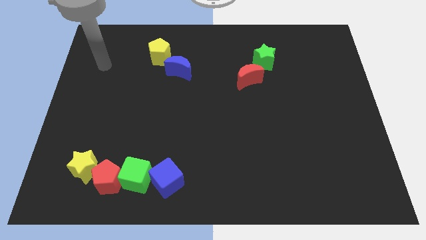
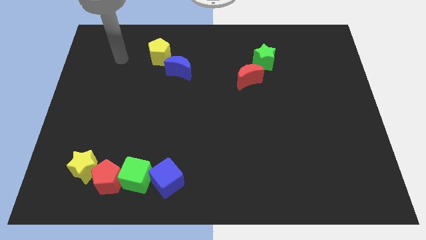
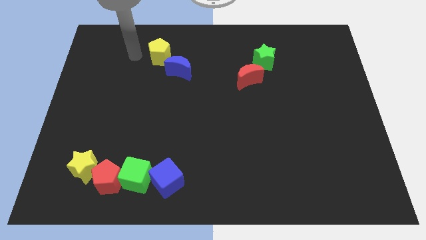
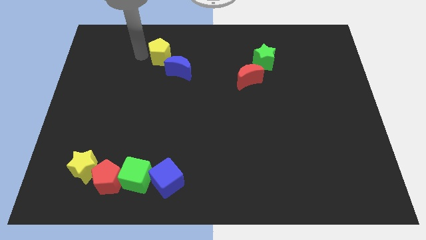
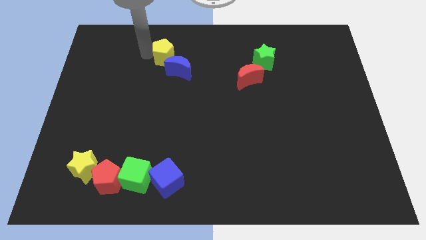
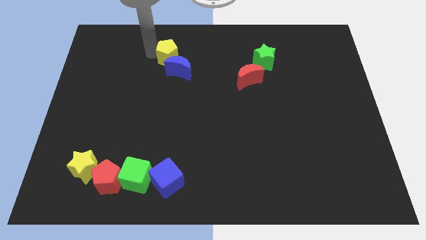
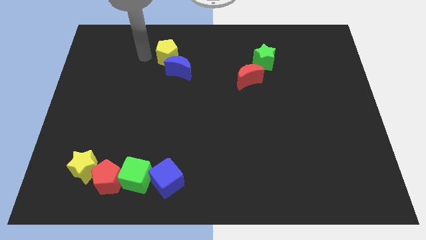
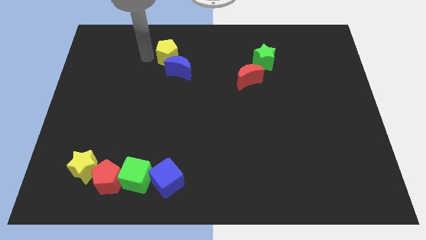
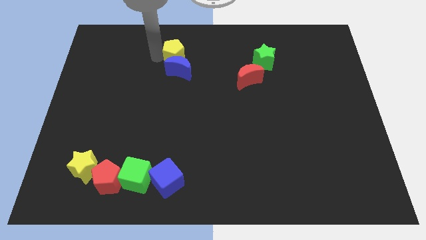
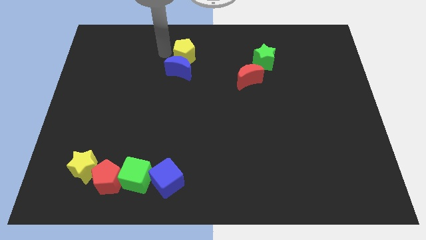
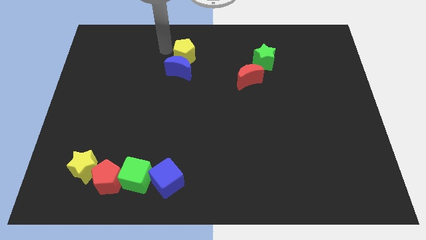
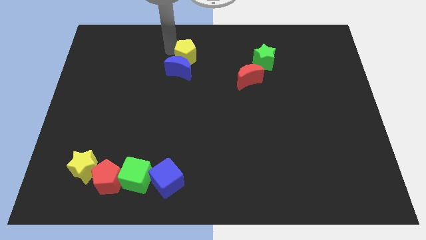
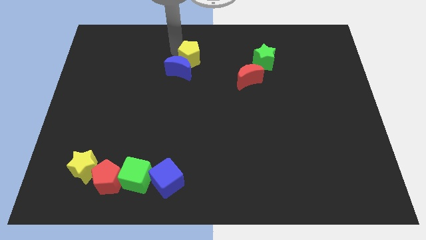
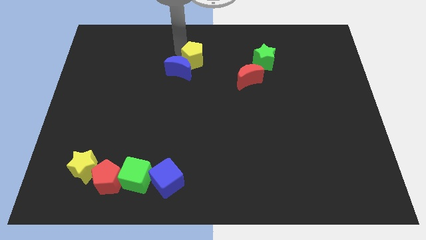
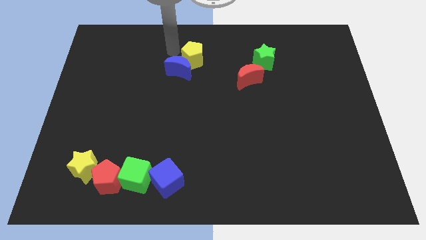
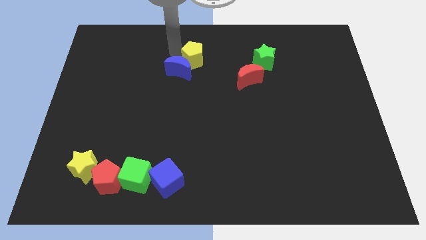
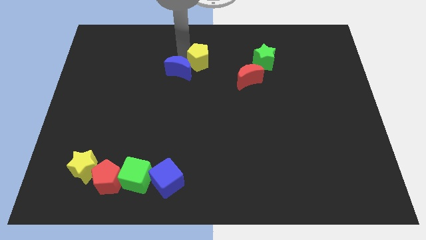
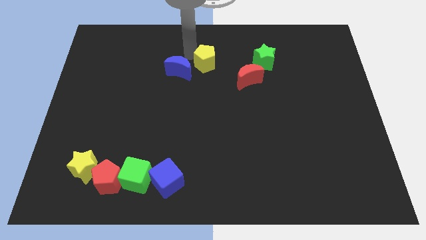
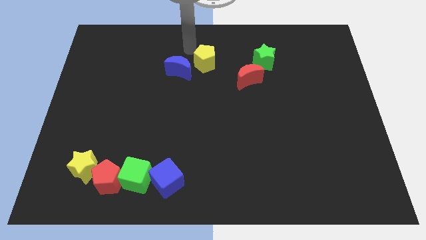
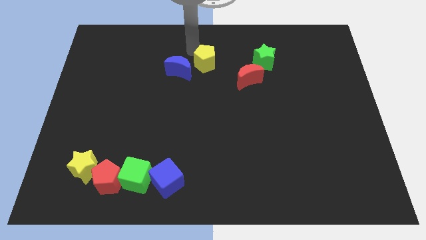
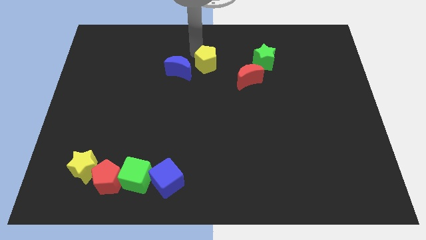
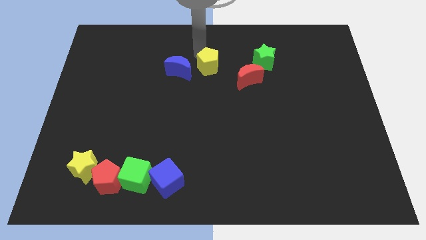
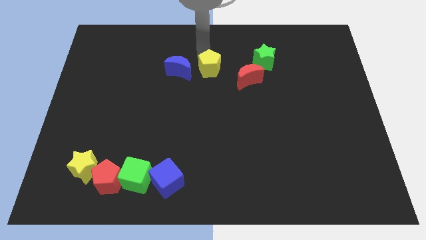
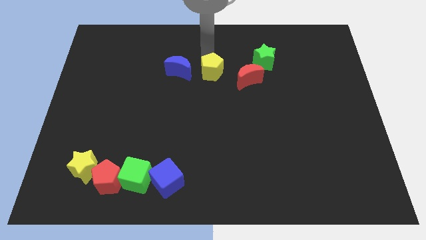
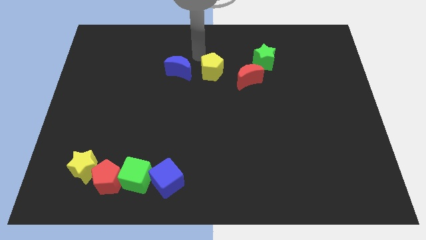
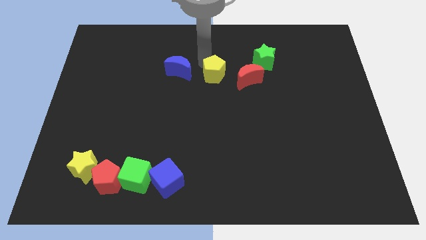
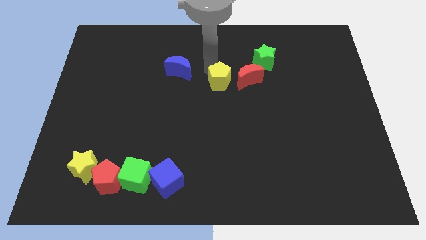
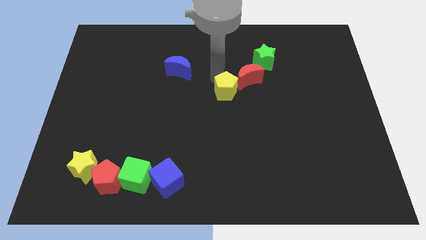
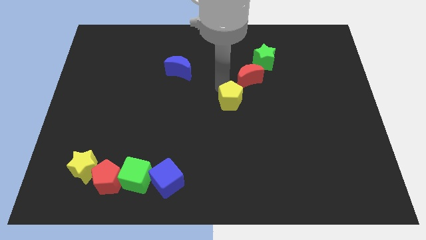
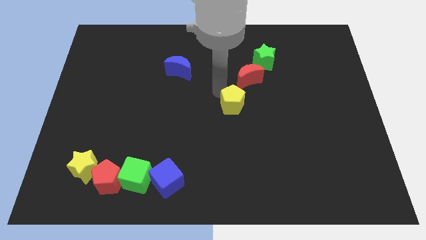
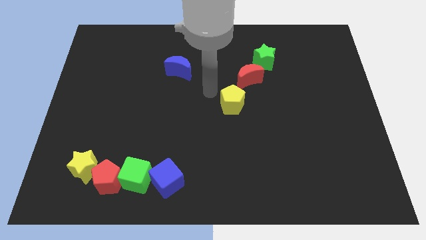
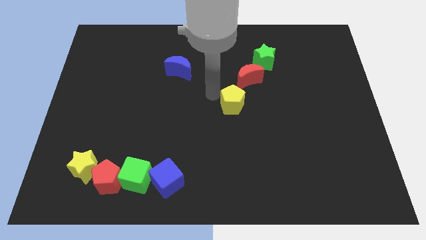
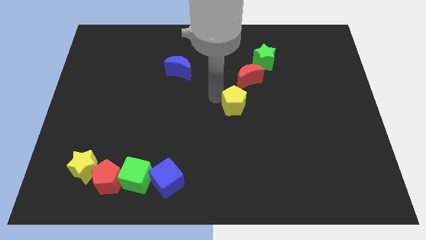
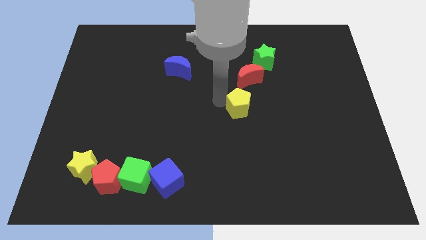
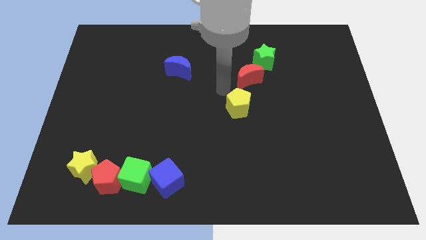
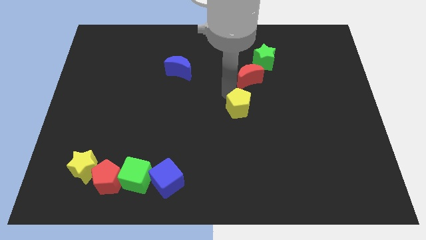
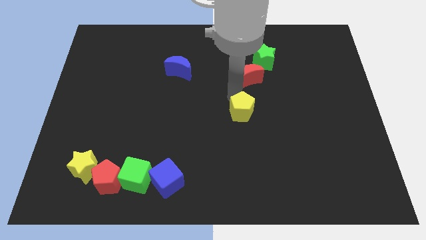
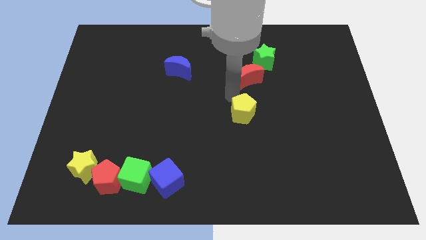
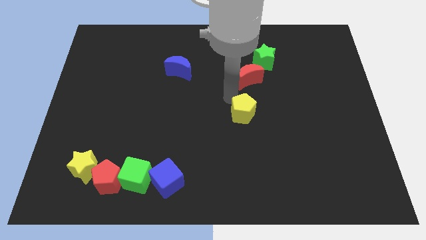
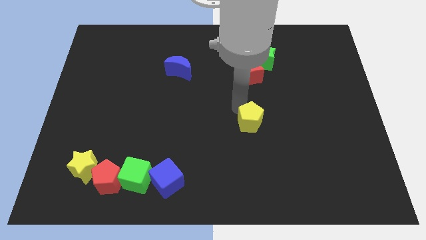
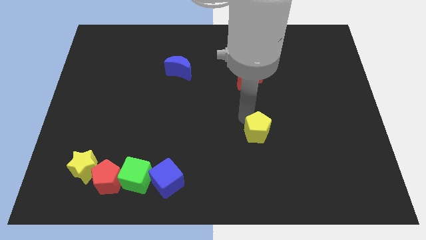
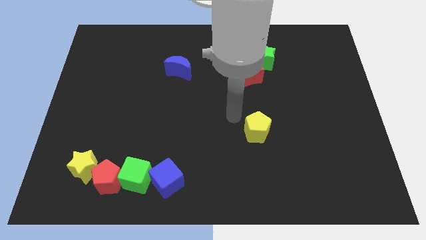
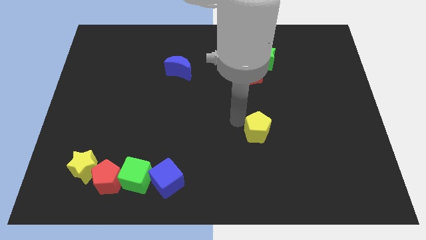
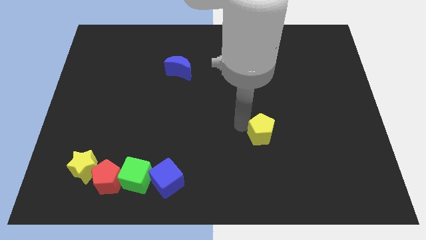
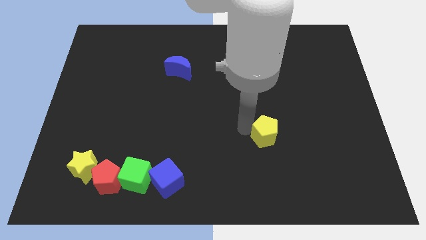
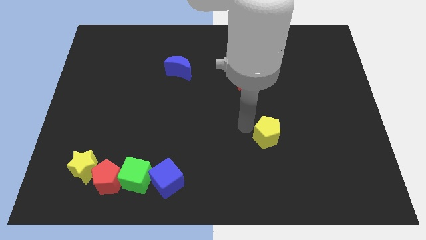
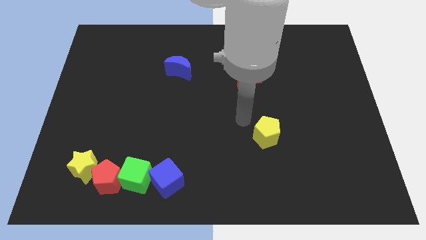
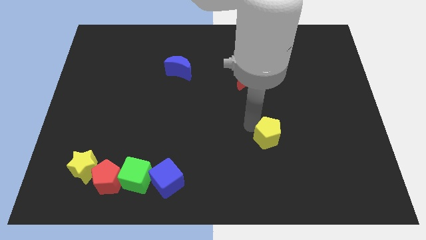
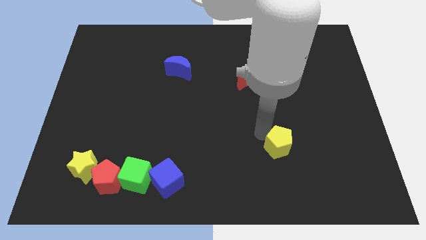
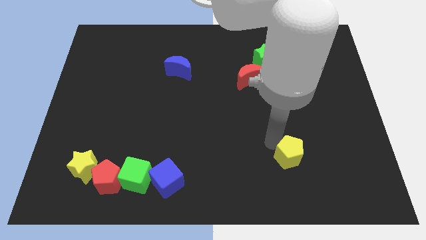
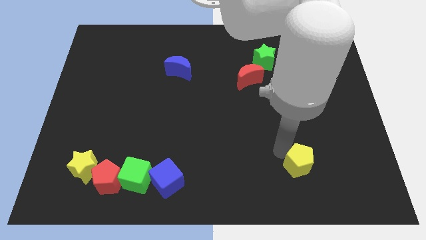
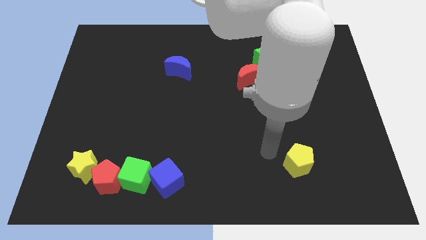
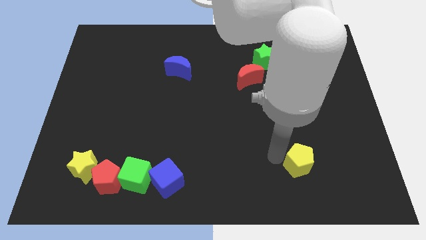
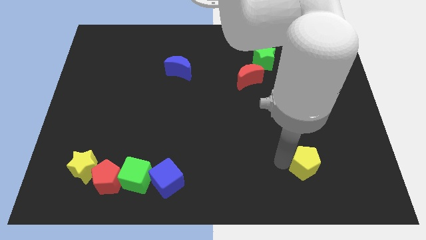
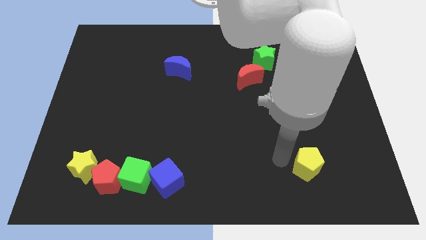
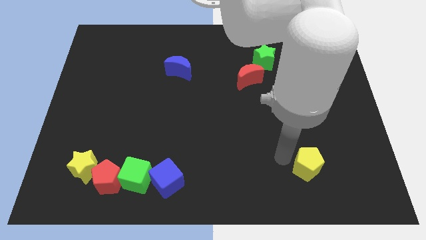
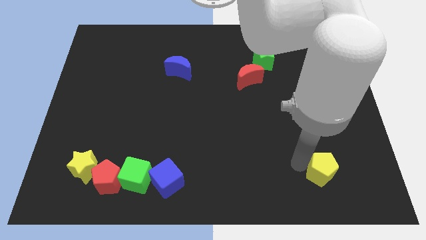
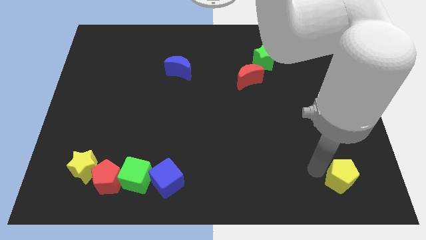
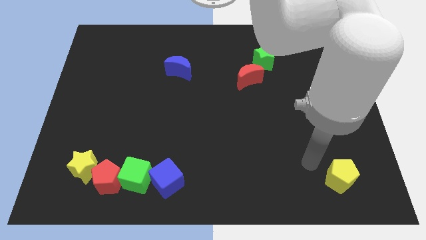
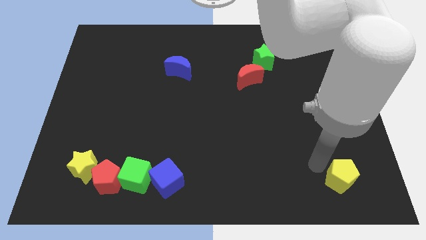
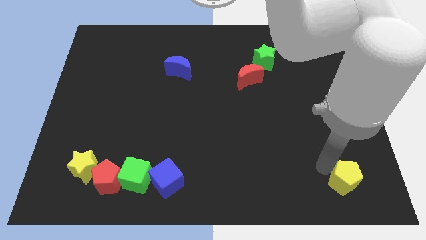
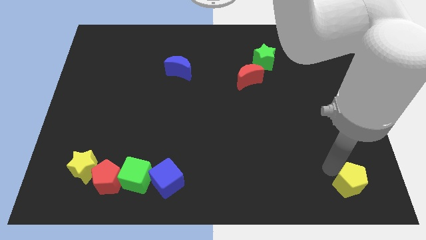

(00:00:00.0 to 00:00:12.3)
push the yellow pentagon to the bottom right
